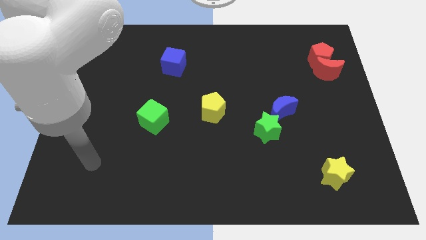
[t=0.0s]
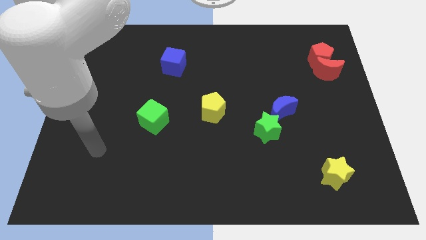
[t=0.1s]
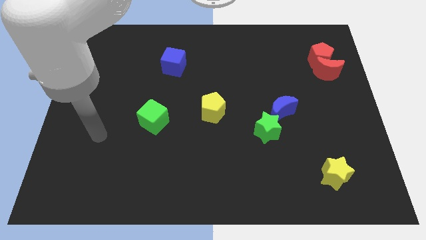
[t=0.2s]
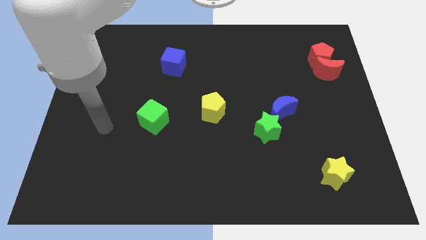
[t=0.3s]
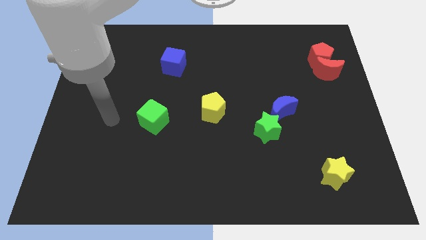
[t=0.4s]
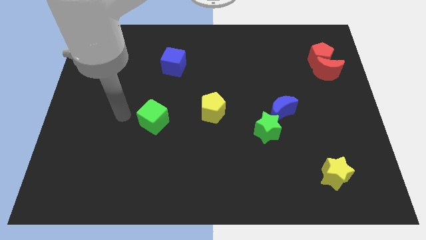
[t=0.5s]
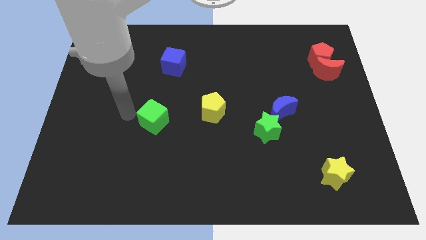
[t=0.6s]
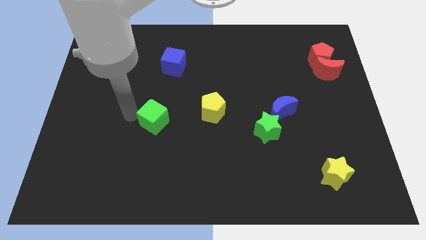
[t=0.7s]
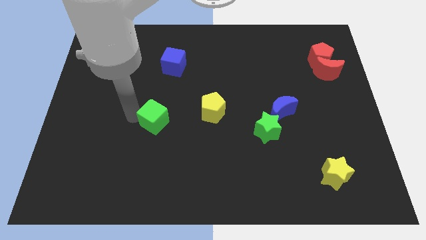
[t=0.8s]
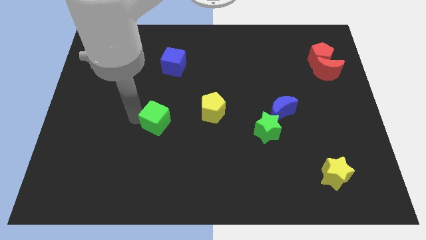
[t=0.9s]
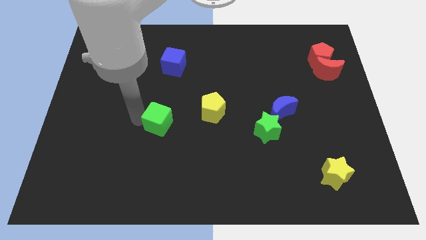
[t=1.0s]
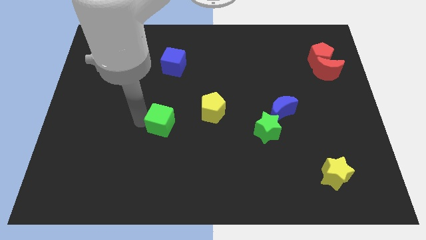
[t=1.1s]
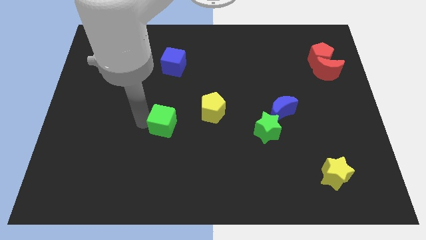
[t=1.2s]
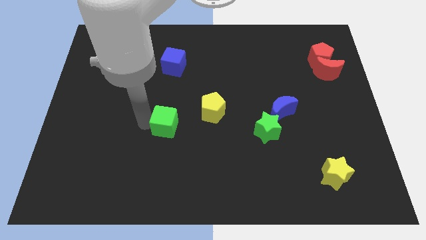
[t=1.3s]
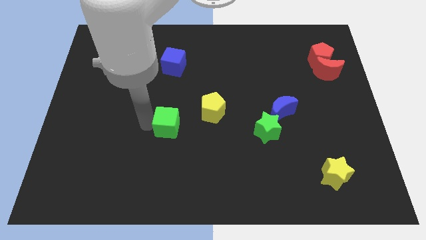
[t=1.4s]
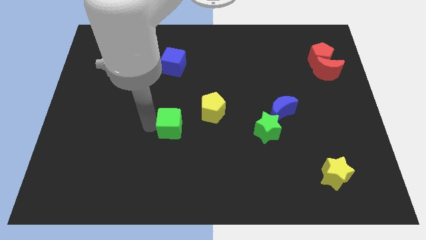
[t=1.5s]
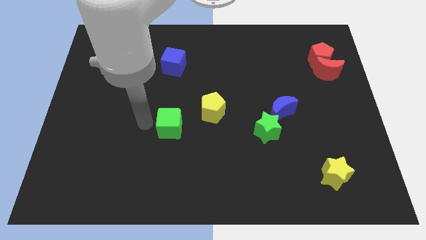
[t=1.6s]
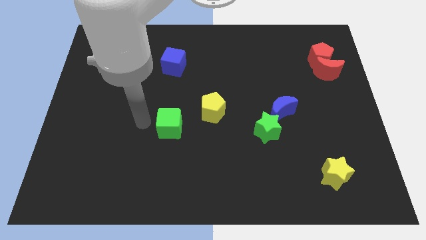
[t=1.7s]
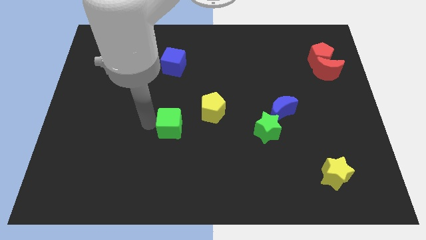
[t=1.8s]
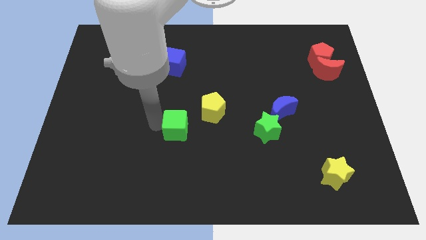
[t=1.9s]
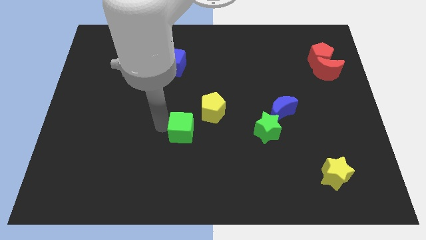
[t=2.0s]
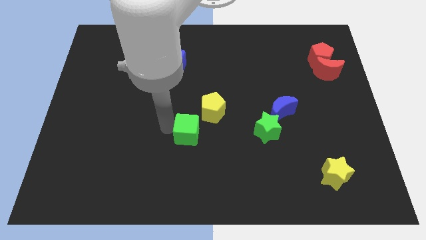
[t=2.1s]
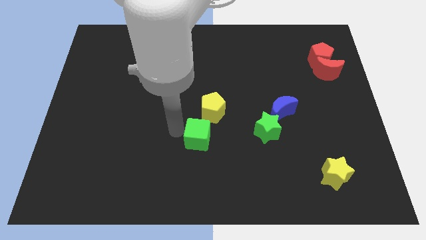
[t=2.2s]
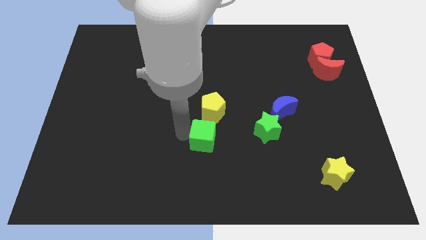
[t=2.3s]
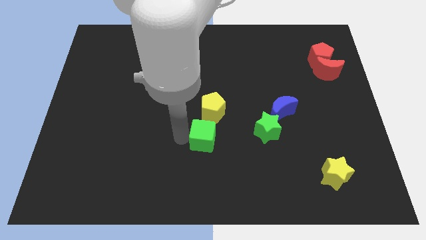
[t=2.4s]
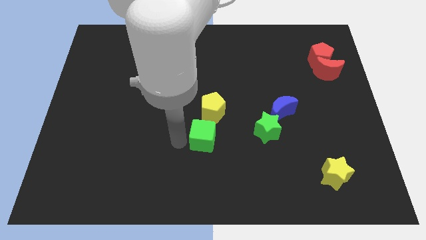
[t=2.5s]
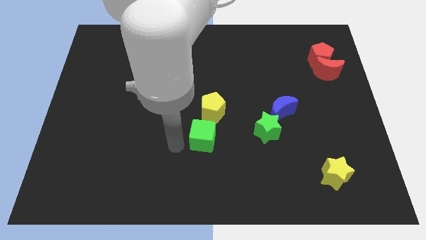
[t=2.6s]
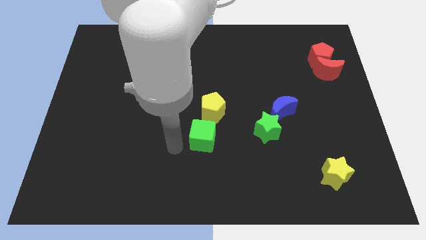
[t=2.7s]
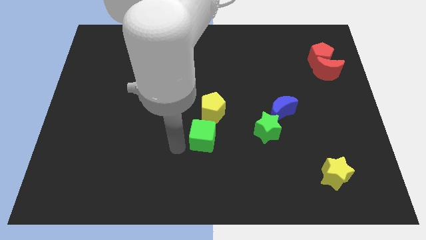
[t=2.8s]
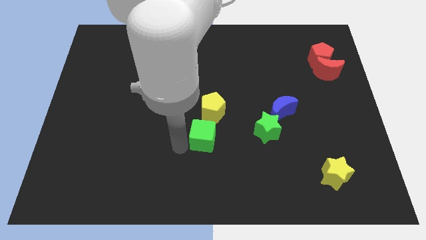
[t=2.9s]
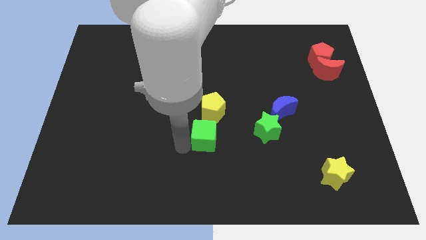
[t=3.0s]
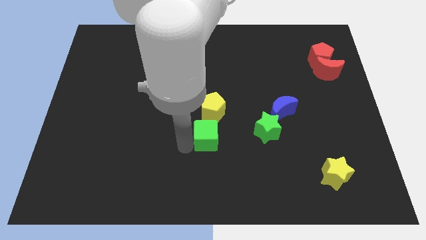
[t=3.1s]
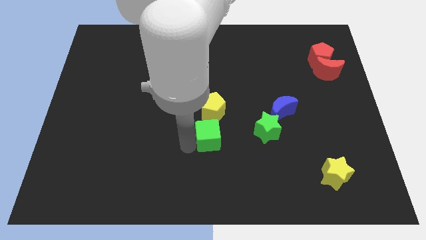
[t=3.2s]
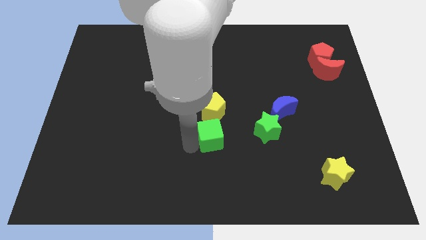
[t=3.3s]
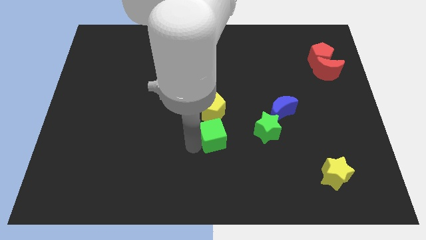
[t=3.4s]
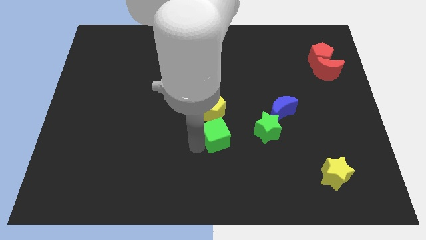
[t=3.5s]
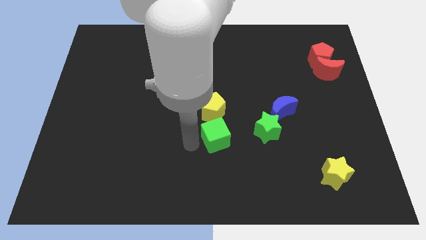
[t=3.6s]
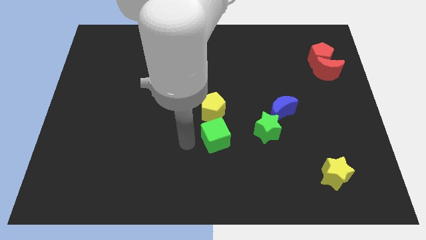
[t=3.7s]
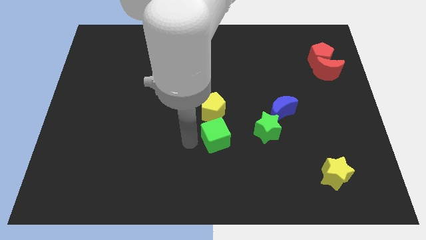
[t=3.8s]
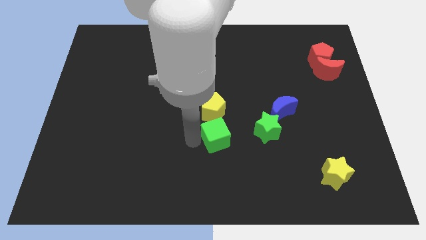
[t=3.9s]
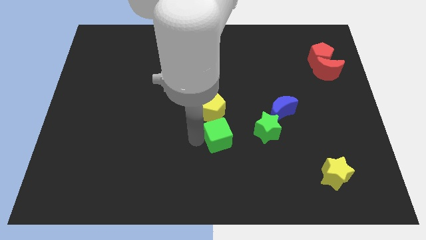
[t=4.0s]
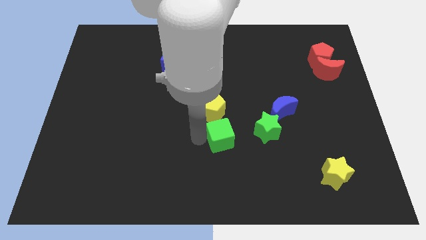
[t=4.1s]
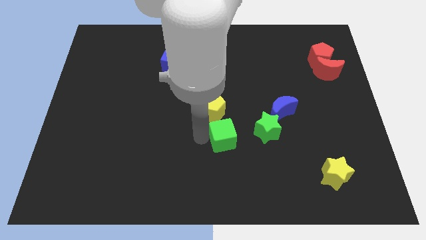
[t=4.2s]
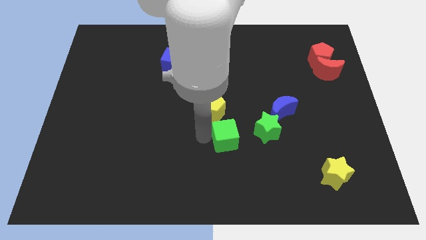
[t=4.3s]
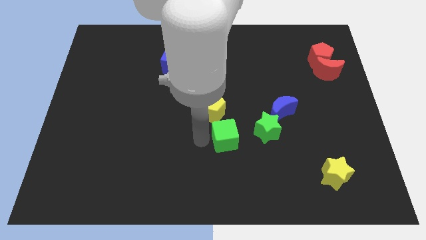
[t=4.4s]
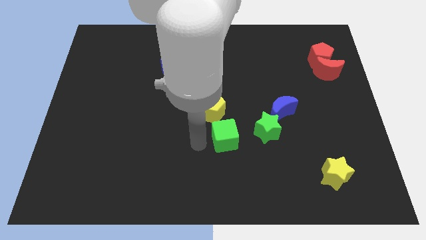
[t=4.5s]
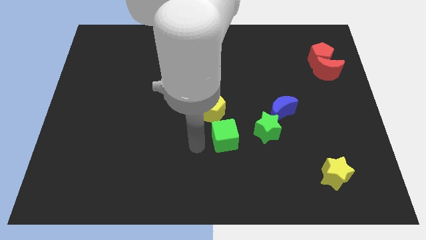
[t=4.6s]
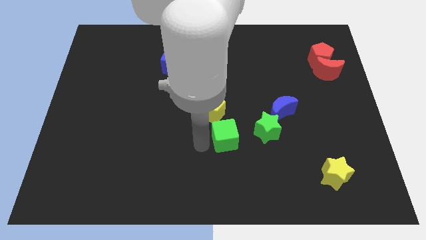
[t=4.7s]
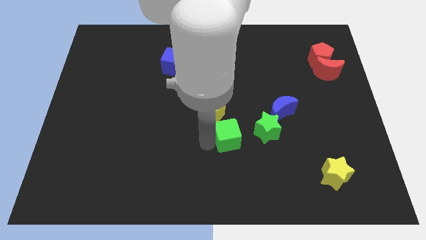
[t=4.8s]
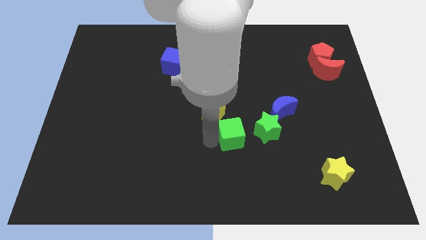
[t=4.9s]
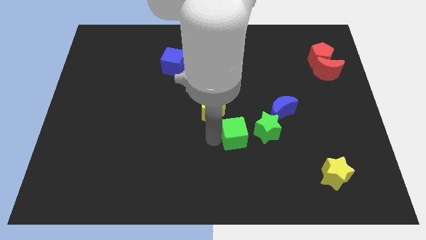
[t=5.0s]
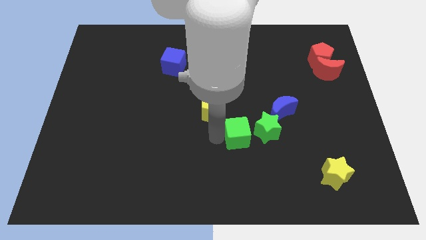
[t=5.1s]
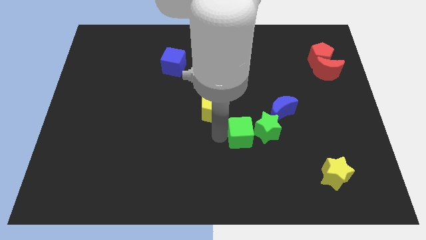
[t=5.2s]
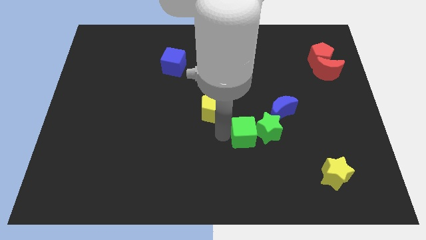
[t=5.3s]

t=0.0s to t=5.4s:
push the green cube to the right

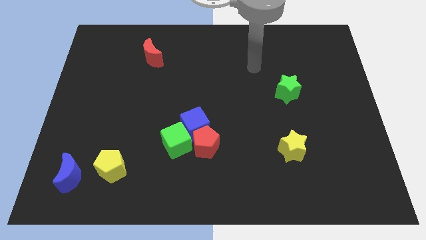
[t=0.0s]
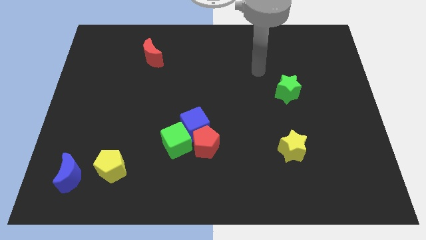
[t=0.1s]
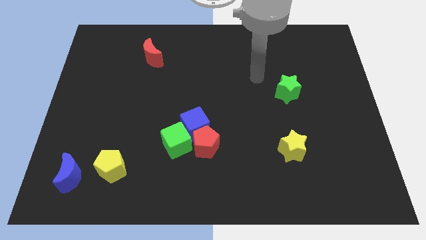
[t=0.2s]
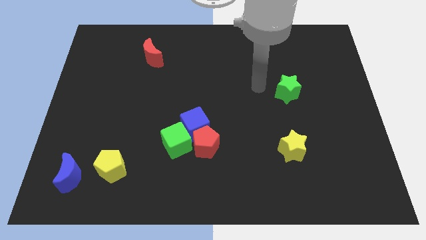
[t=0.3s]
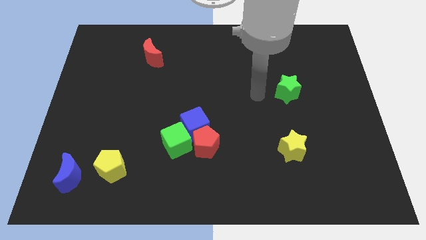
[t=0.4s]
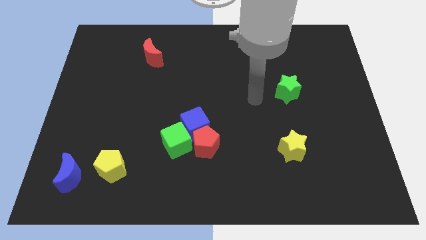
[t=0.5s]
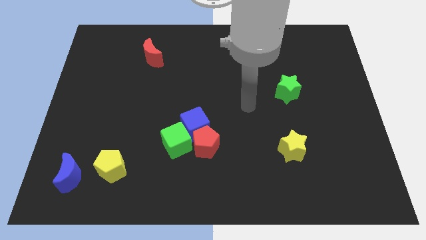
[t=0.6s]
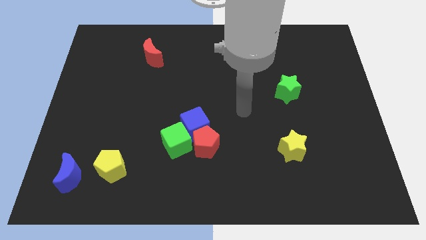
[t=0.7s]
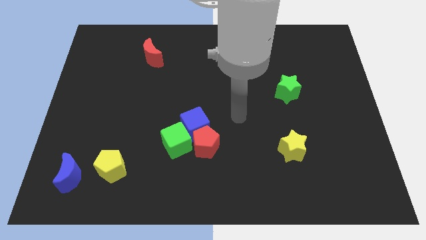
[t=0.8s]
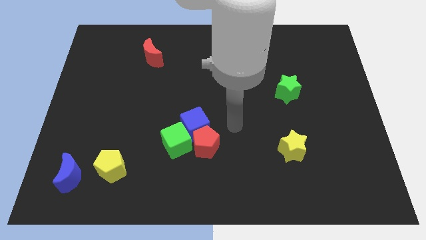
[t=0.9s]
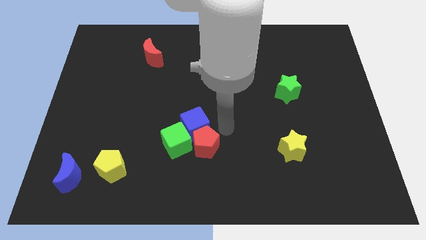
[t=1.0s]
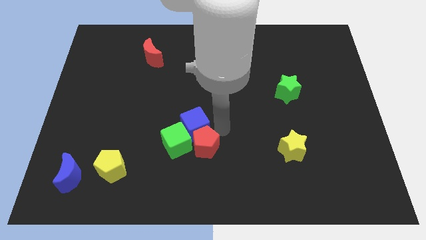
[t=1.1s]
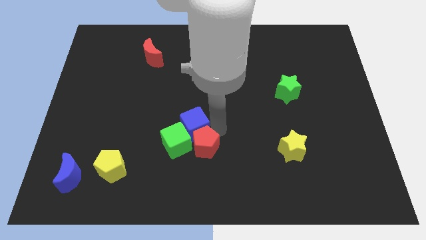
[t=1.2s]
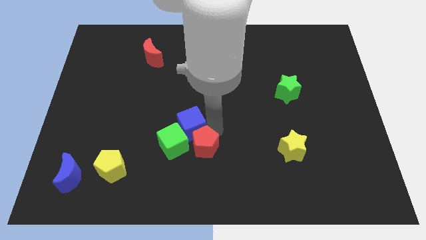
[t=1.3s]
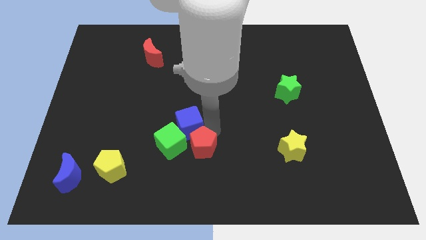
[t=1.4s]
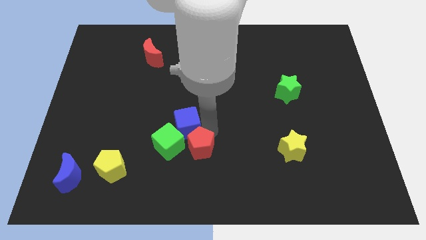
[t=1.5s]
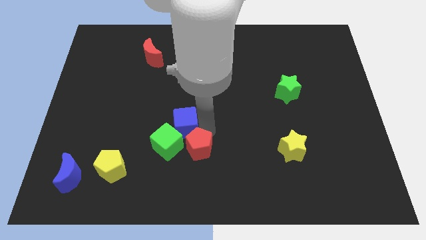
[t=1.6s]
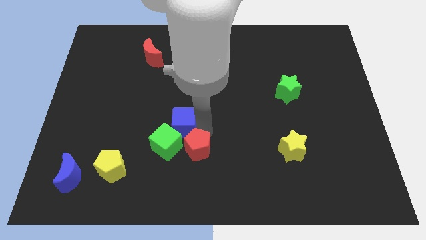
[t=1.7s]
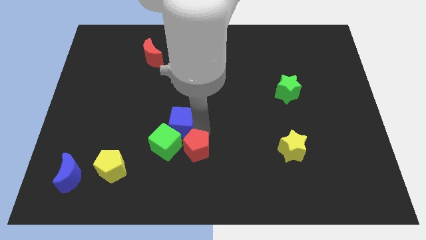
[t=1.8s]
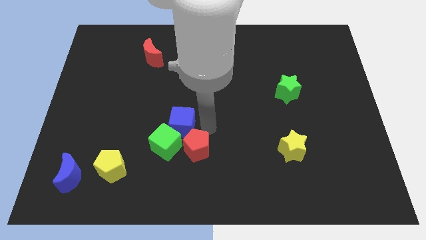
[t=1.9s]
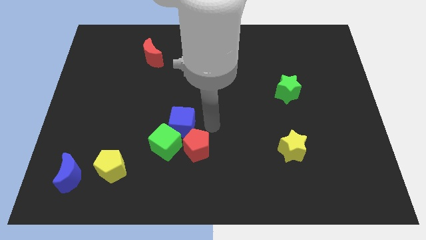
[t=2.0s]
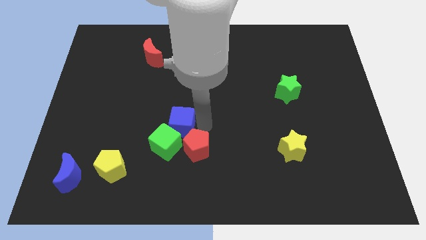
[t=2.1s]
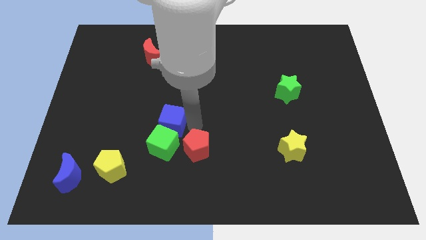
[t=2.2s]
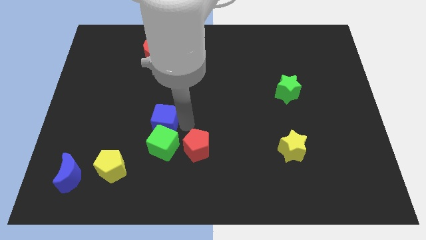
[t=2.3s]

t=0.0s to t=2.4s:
move the blue cube left a bit
